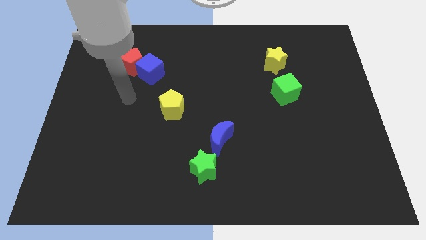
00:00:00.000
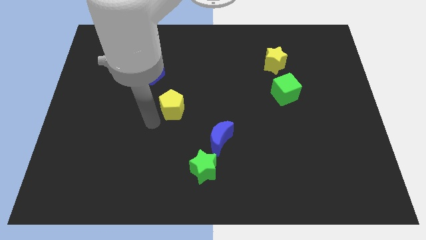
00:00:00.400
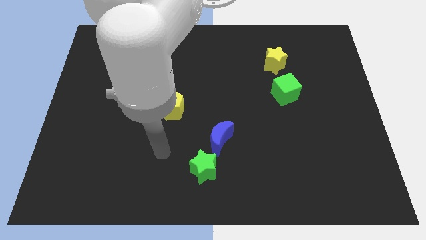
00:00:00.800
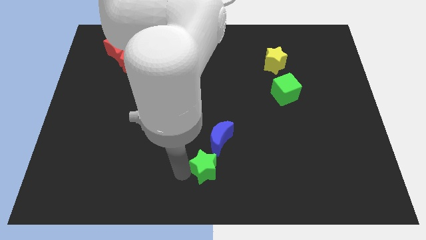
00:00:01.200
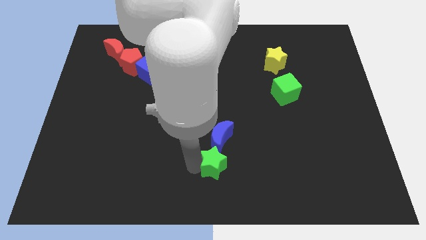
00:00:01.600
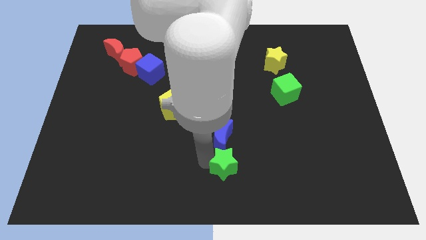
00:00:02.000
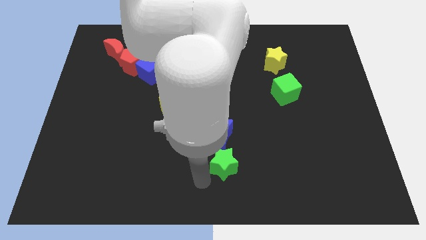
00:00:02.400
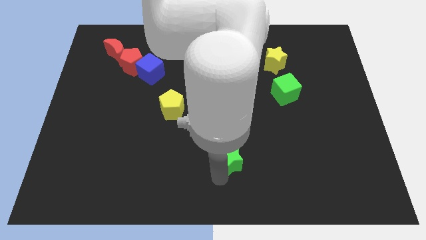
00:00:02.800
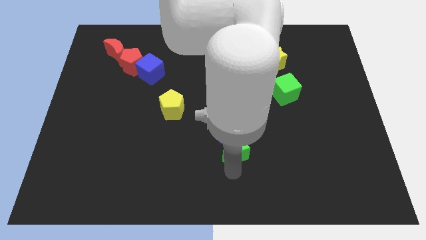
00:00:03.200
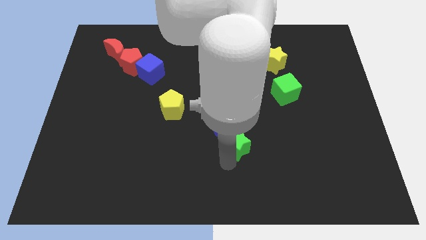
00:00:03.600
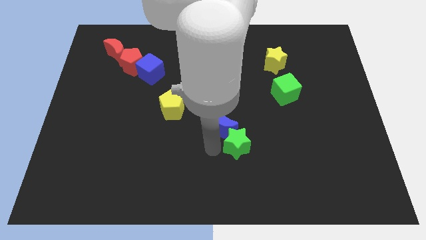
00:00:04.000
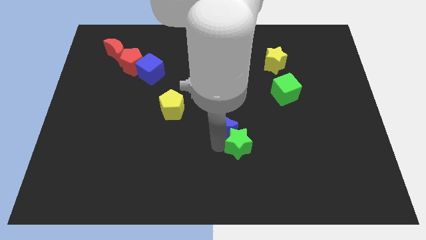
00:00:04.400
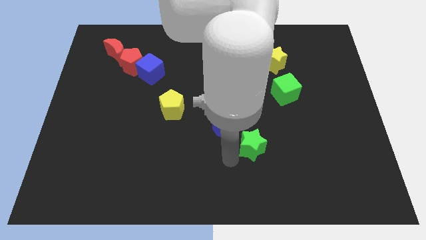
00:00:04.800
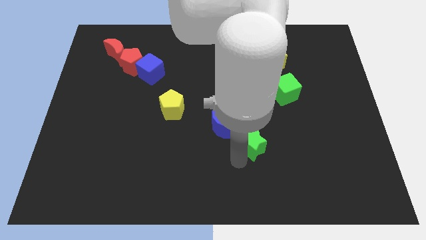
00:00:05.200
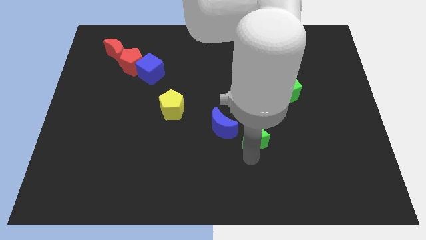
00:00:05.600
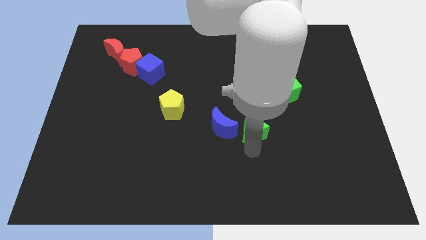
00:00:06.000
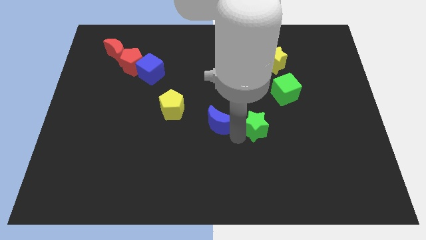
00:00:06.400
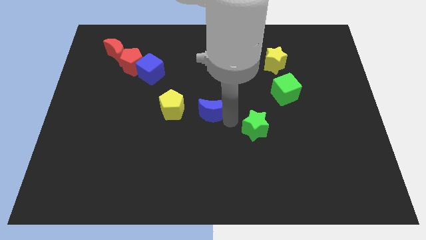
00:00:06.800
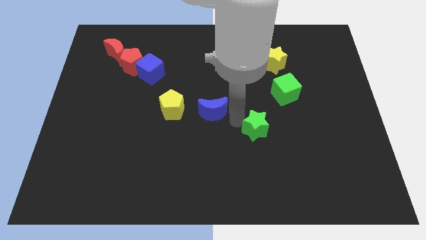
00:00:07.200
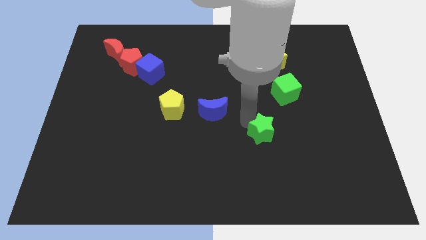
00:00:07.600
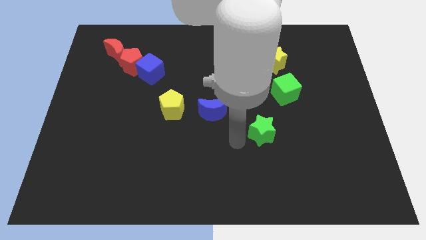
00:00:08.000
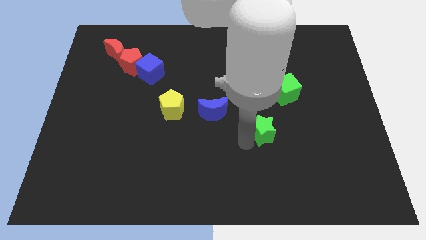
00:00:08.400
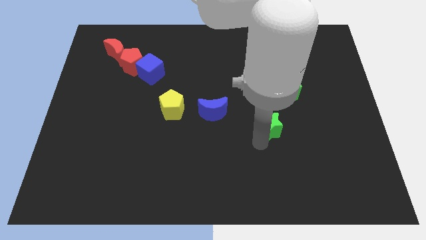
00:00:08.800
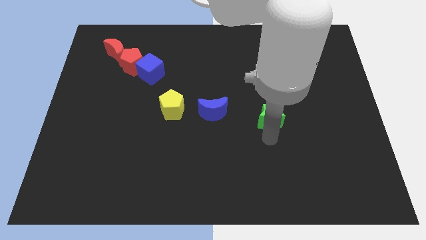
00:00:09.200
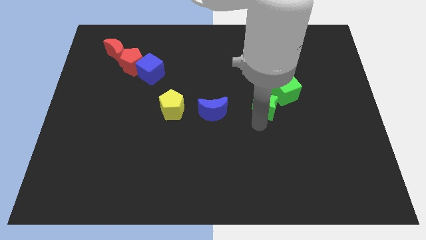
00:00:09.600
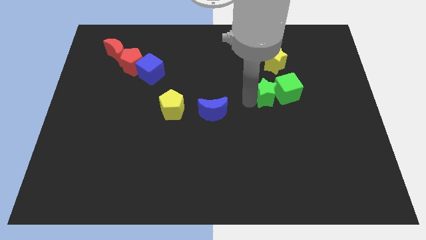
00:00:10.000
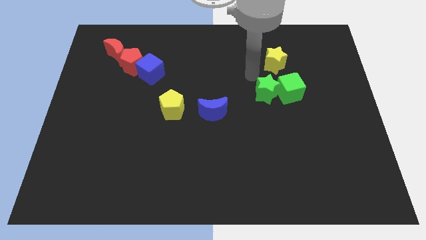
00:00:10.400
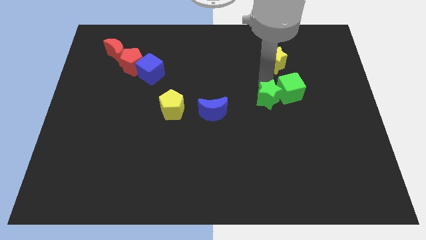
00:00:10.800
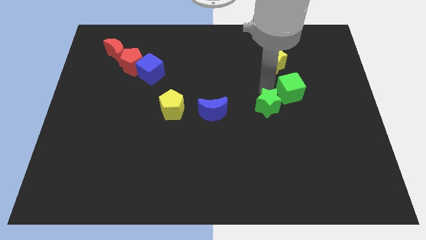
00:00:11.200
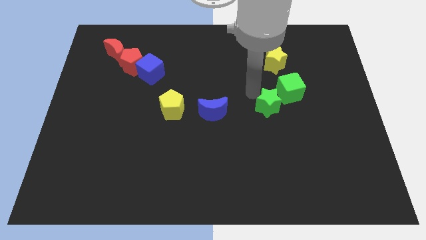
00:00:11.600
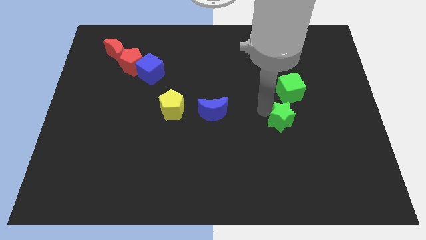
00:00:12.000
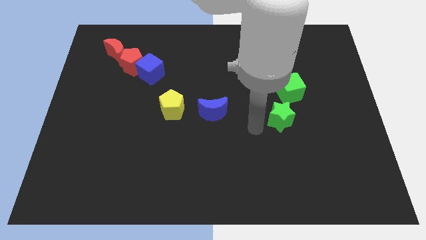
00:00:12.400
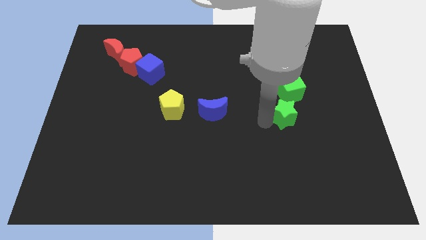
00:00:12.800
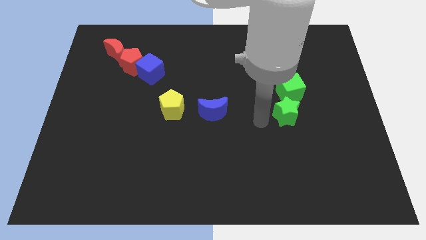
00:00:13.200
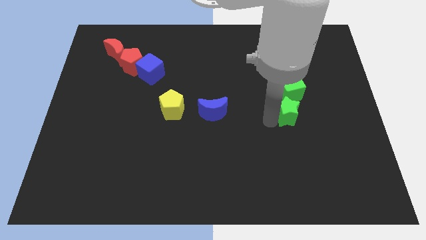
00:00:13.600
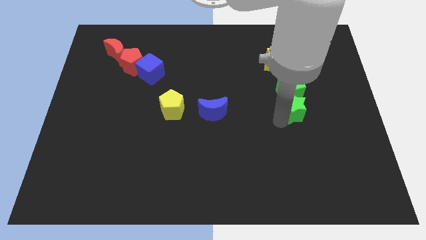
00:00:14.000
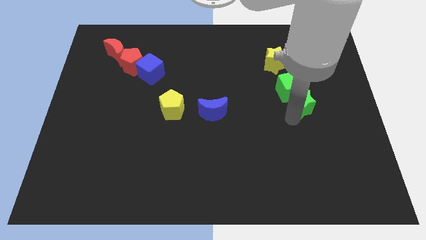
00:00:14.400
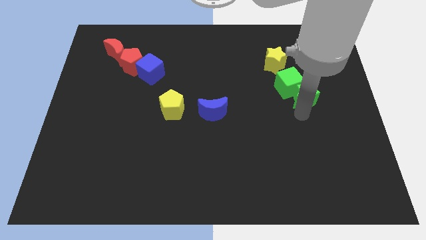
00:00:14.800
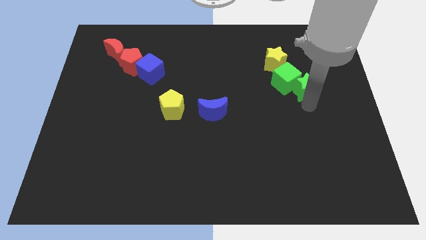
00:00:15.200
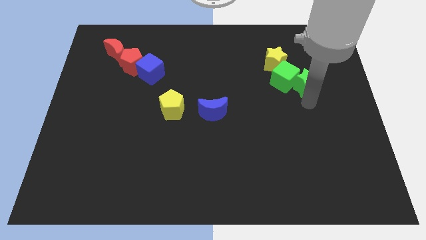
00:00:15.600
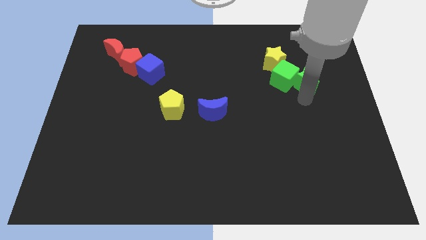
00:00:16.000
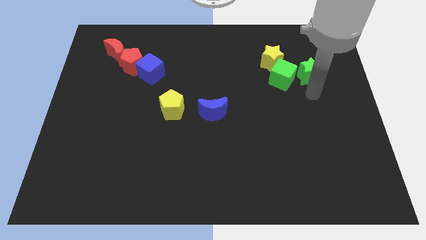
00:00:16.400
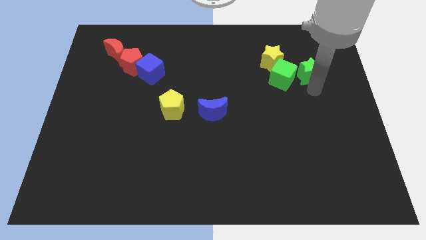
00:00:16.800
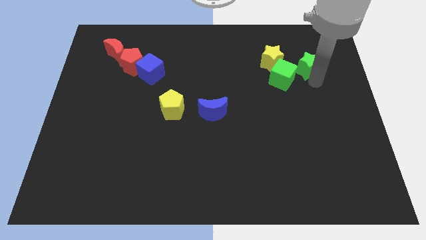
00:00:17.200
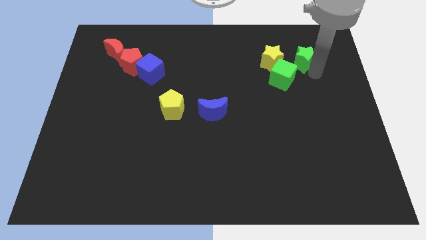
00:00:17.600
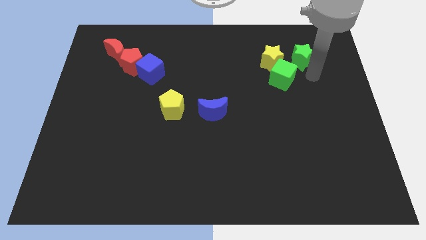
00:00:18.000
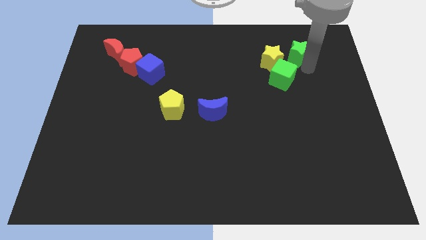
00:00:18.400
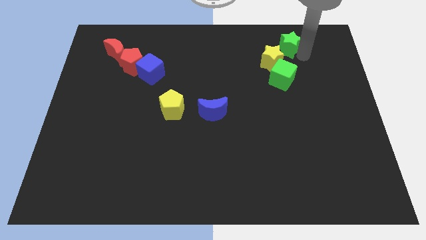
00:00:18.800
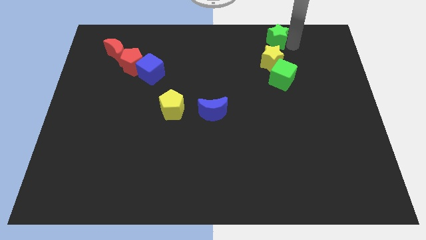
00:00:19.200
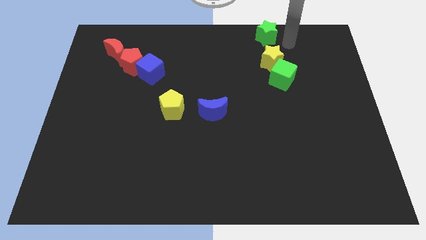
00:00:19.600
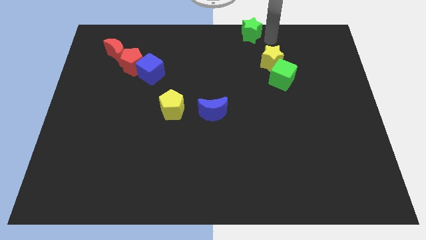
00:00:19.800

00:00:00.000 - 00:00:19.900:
move the green star to the towards your base

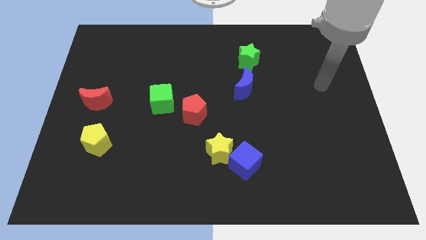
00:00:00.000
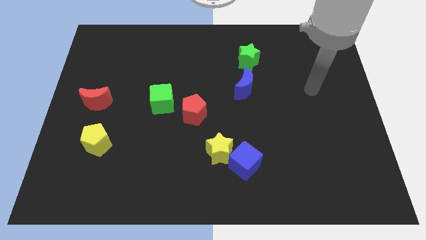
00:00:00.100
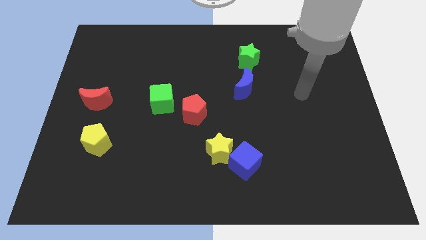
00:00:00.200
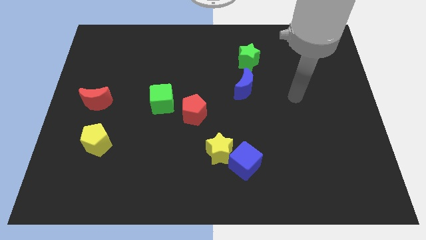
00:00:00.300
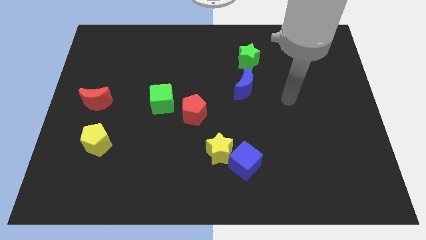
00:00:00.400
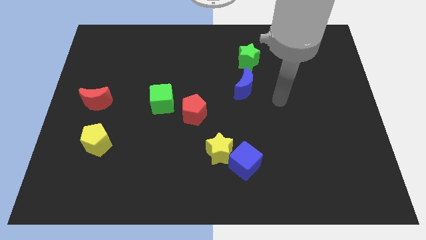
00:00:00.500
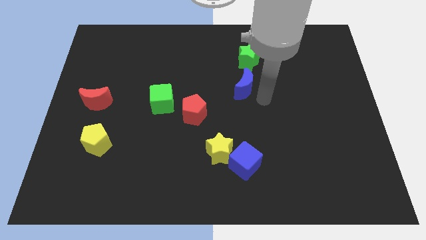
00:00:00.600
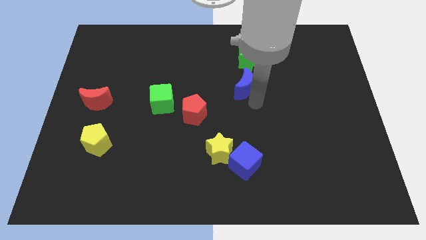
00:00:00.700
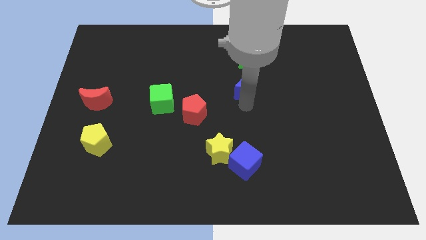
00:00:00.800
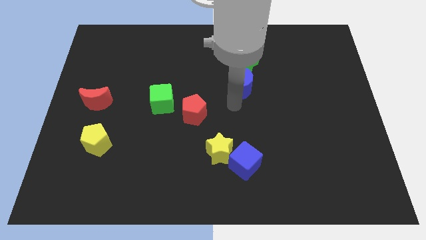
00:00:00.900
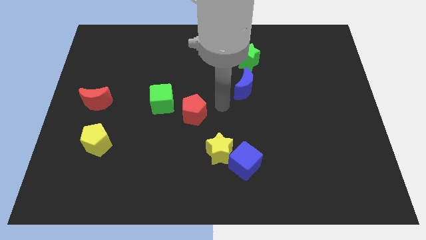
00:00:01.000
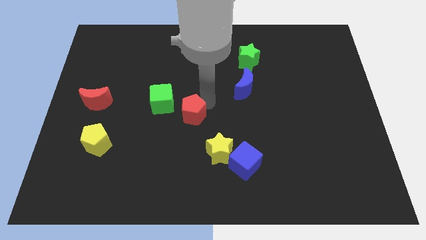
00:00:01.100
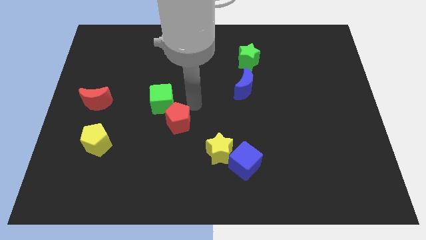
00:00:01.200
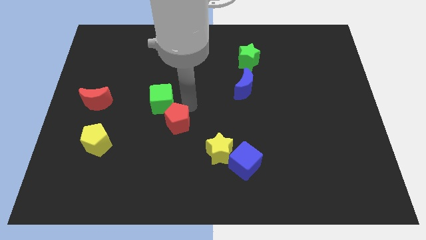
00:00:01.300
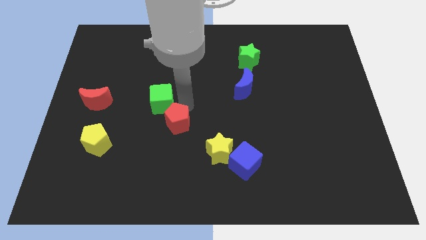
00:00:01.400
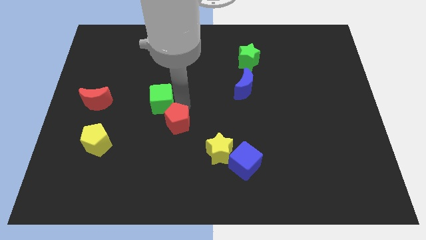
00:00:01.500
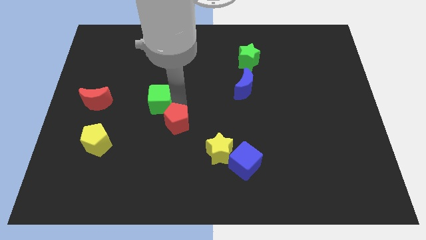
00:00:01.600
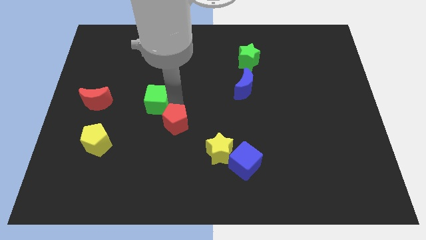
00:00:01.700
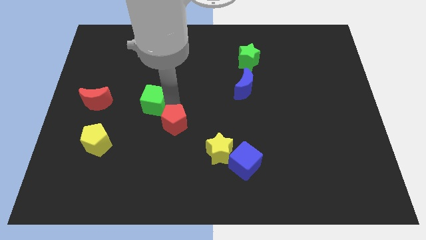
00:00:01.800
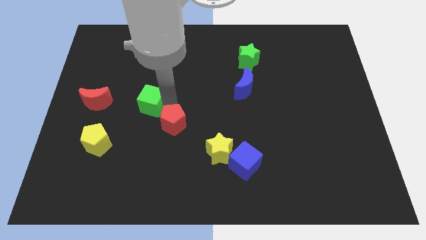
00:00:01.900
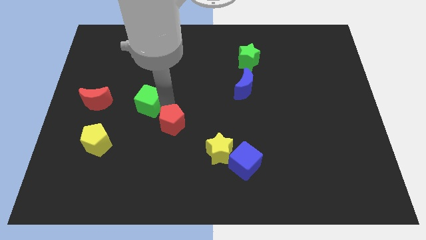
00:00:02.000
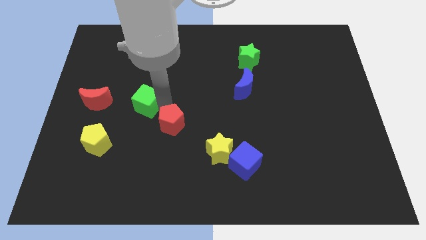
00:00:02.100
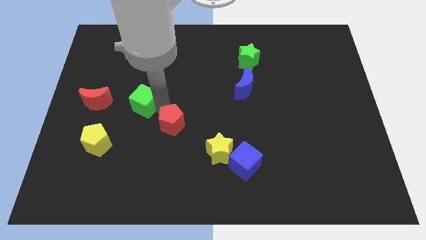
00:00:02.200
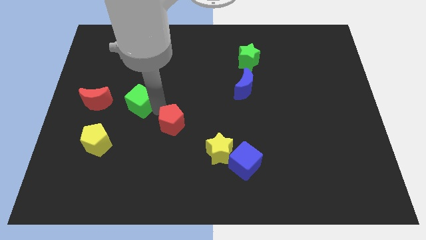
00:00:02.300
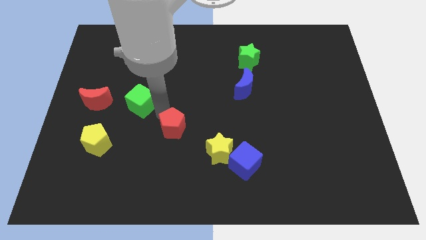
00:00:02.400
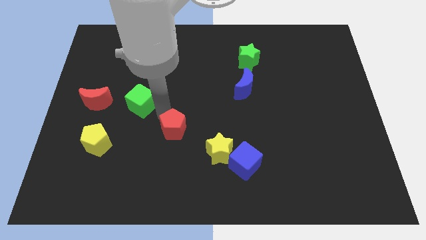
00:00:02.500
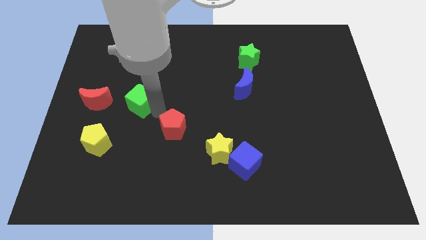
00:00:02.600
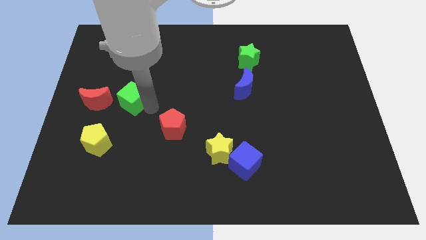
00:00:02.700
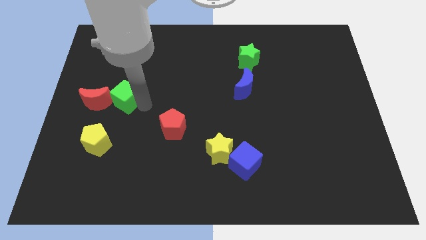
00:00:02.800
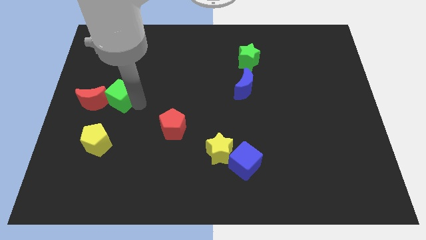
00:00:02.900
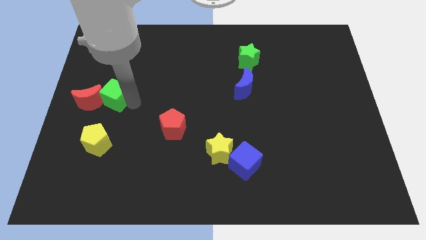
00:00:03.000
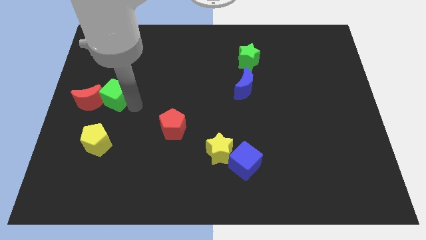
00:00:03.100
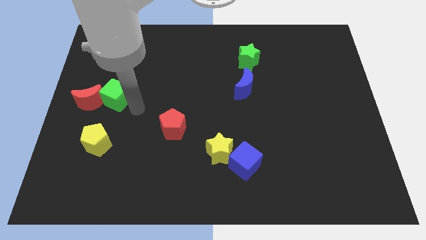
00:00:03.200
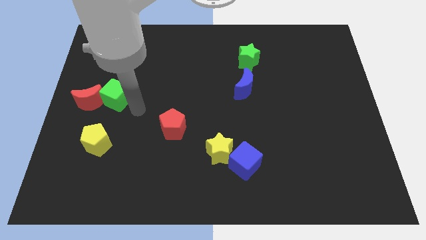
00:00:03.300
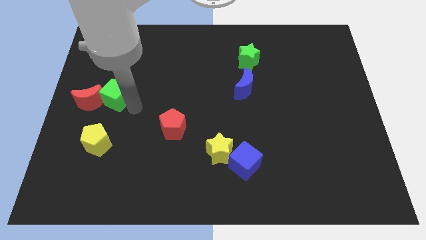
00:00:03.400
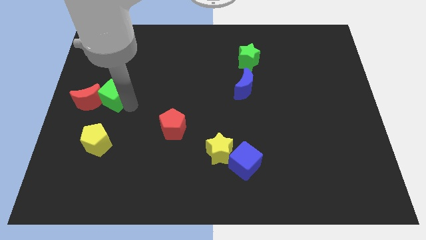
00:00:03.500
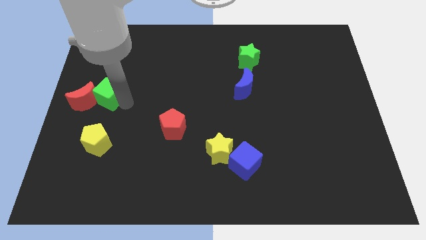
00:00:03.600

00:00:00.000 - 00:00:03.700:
push the green cube to the left side
